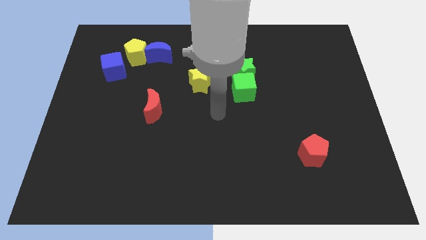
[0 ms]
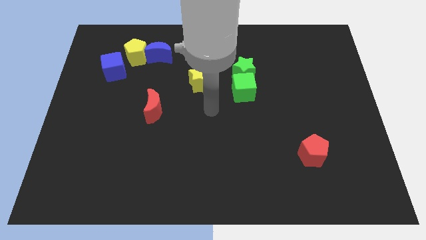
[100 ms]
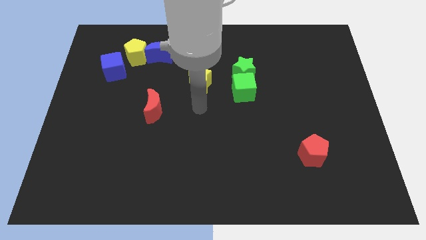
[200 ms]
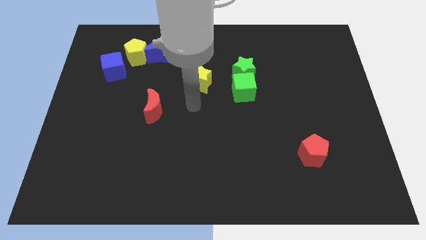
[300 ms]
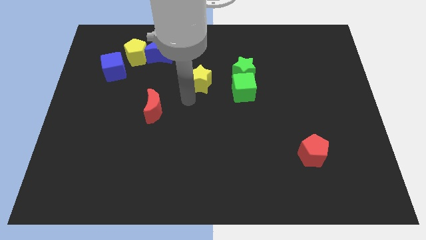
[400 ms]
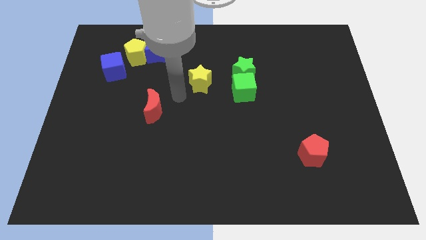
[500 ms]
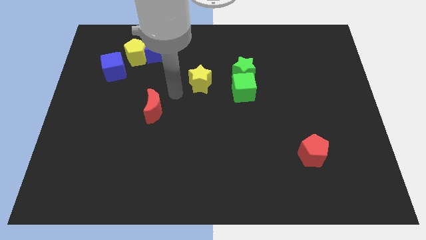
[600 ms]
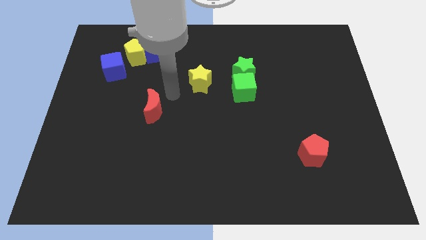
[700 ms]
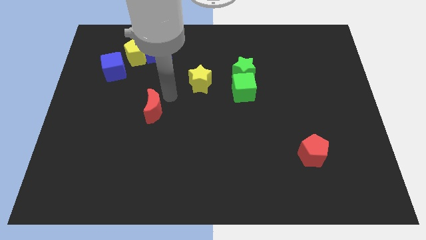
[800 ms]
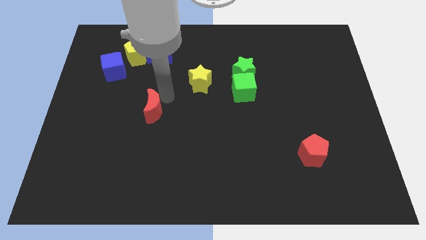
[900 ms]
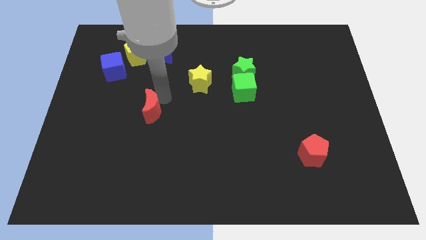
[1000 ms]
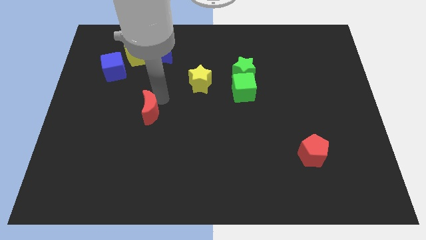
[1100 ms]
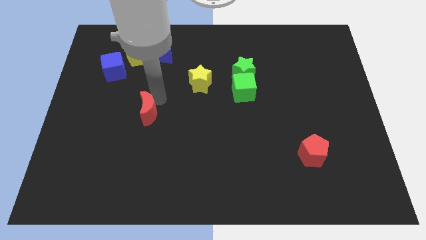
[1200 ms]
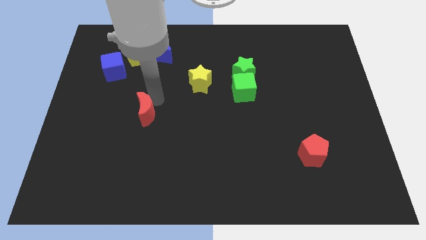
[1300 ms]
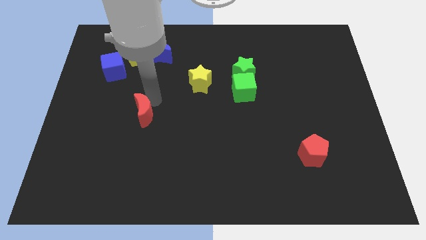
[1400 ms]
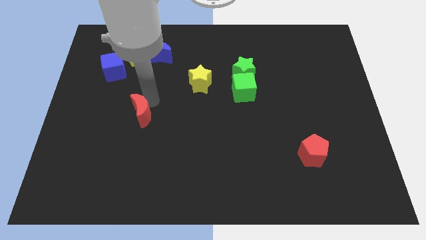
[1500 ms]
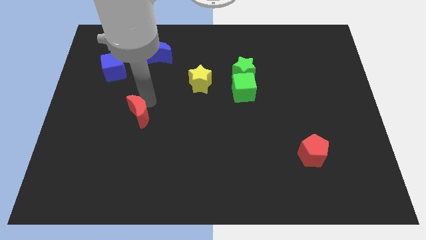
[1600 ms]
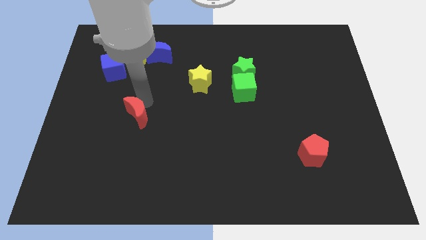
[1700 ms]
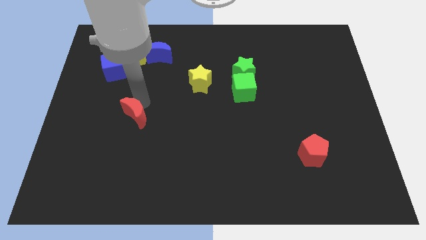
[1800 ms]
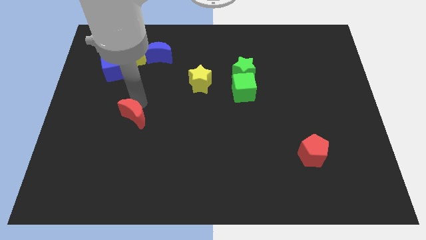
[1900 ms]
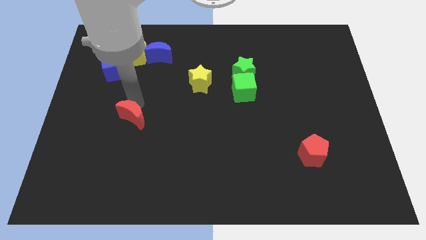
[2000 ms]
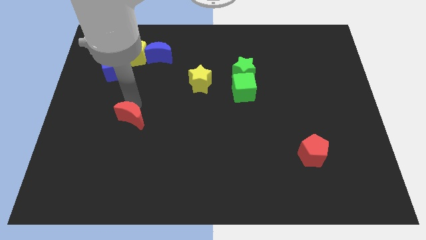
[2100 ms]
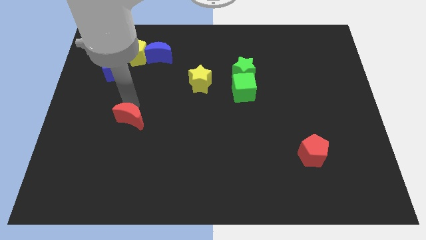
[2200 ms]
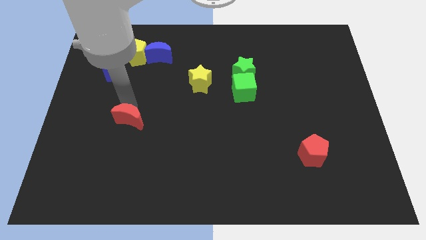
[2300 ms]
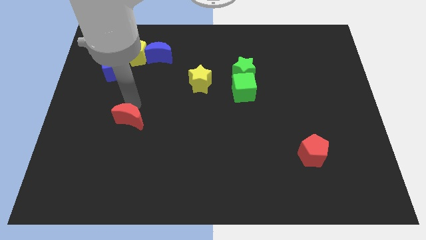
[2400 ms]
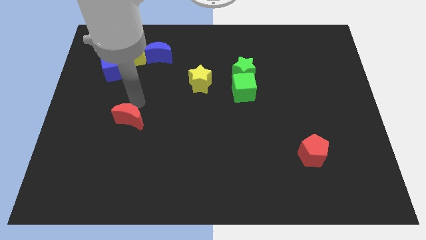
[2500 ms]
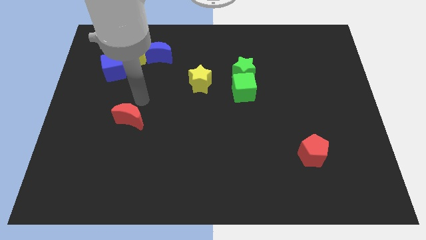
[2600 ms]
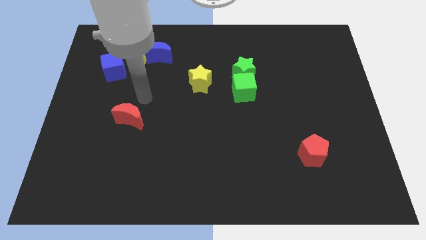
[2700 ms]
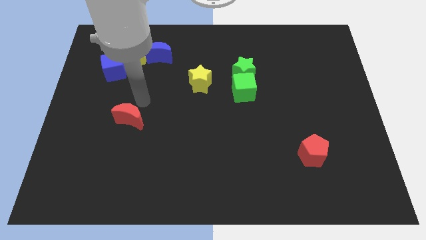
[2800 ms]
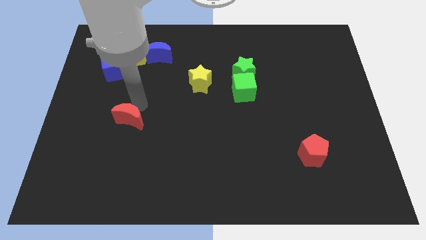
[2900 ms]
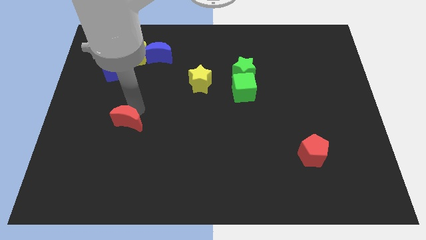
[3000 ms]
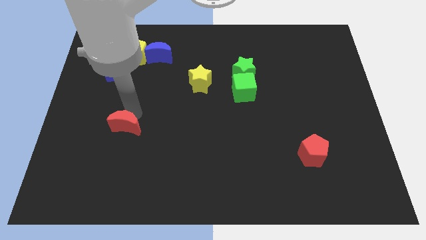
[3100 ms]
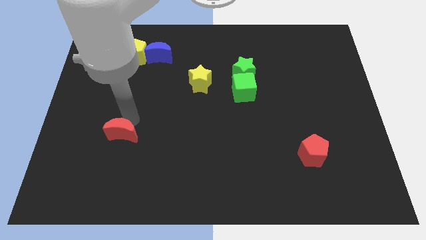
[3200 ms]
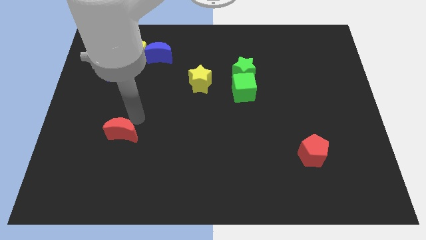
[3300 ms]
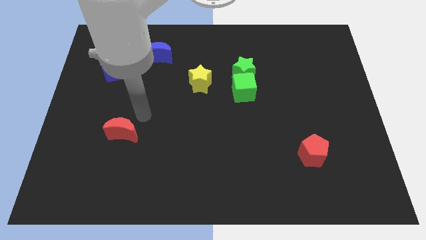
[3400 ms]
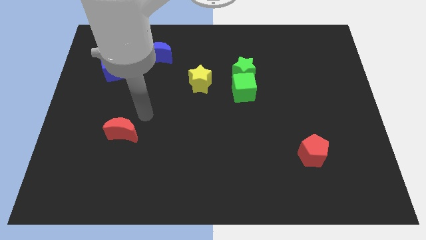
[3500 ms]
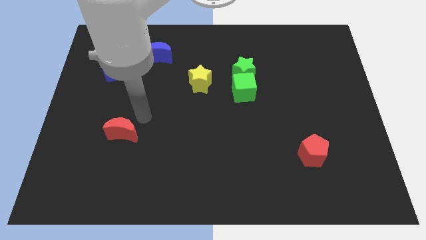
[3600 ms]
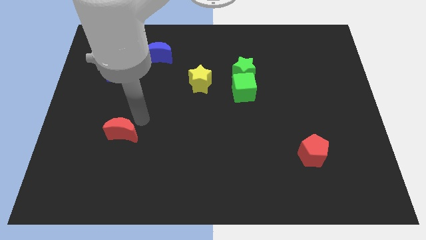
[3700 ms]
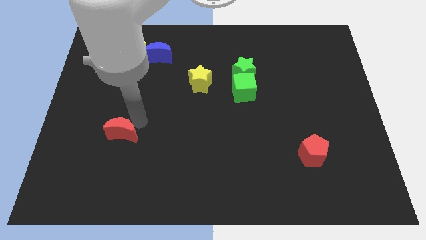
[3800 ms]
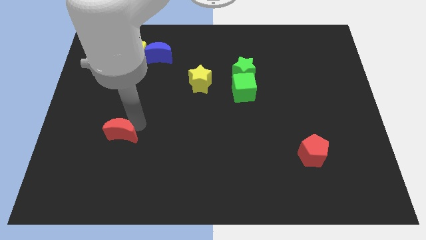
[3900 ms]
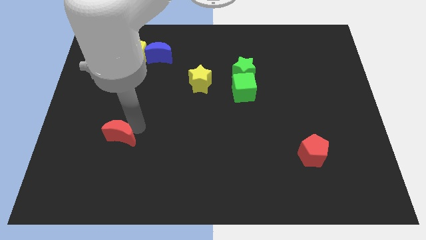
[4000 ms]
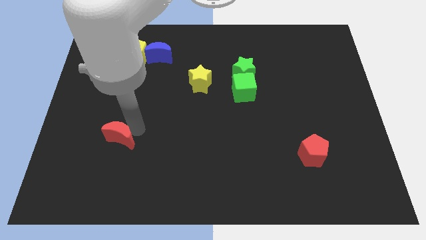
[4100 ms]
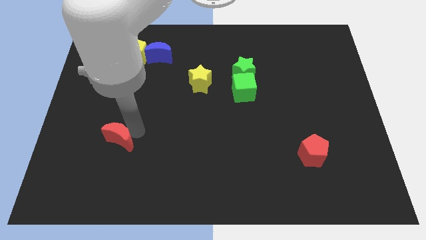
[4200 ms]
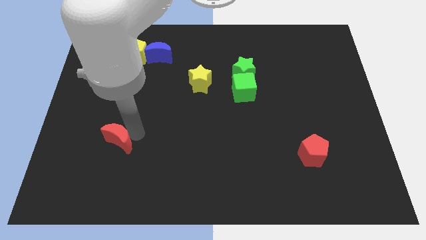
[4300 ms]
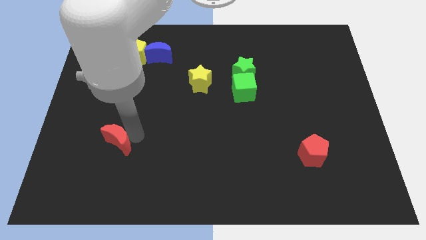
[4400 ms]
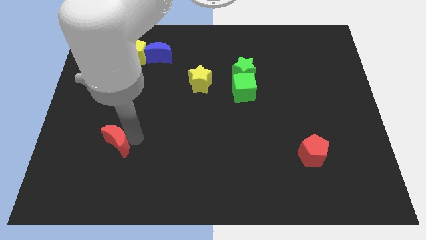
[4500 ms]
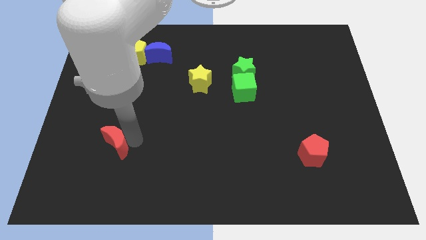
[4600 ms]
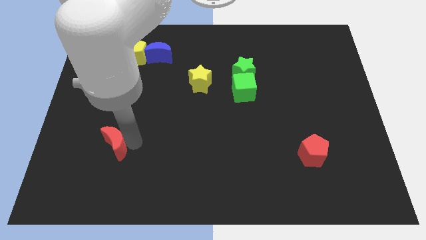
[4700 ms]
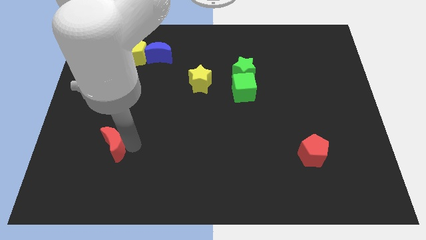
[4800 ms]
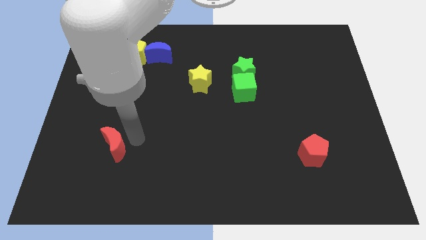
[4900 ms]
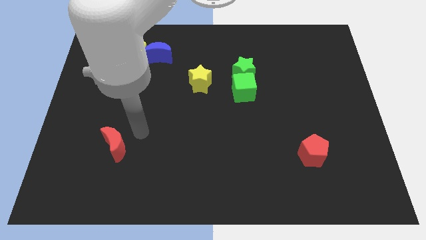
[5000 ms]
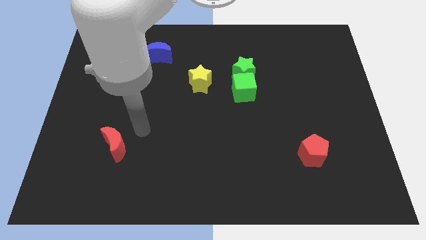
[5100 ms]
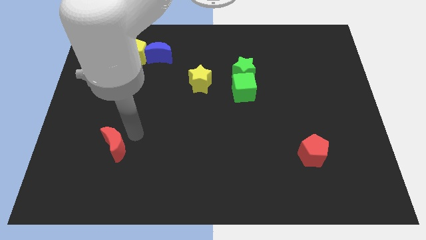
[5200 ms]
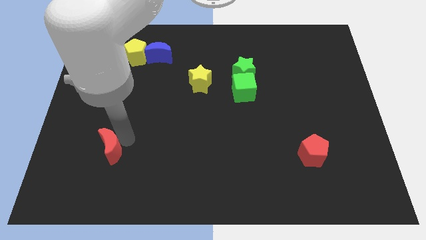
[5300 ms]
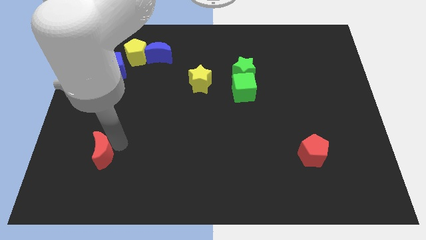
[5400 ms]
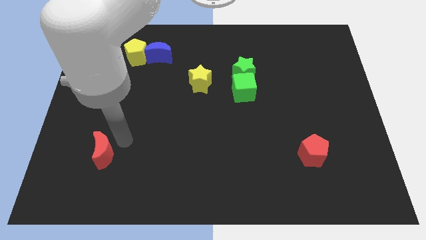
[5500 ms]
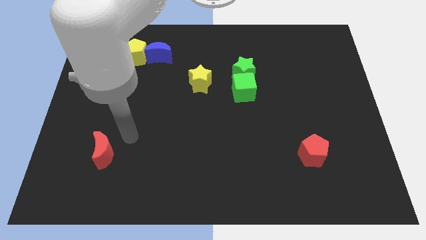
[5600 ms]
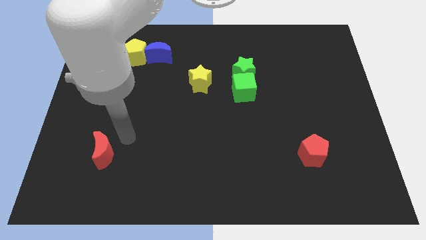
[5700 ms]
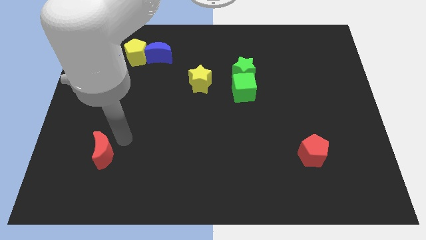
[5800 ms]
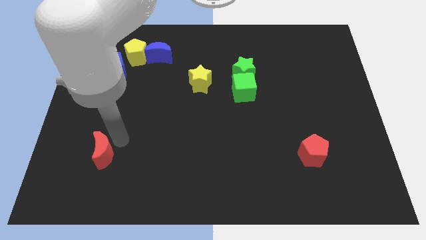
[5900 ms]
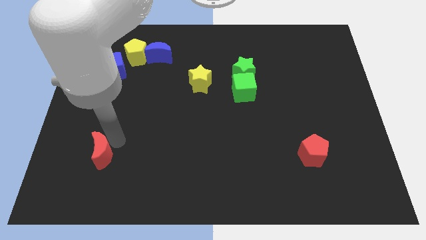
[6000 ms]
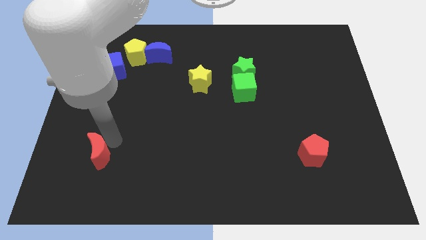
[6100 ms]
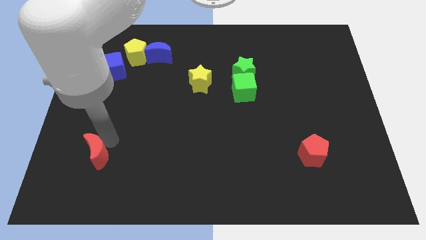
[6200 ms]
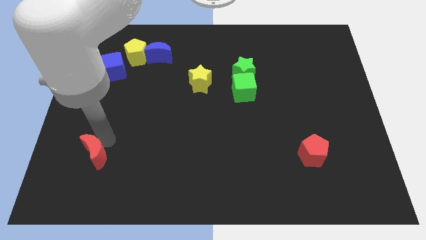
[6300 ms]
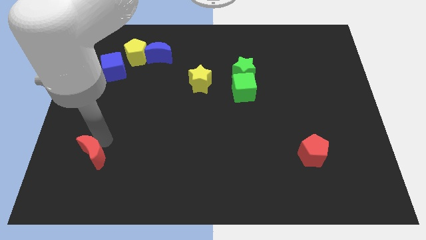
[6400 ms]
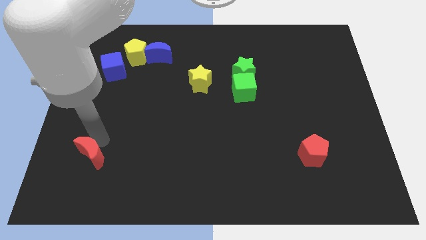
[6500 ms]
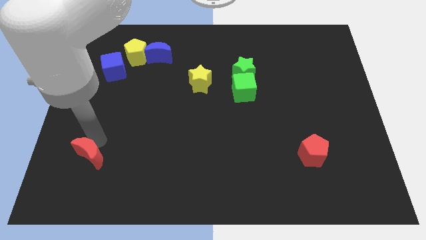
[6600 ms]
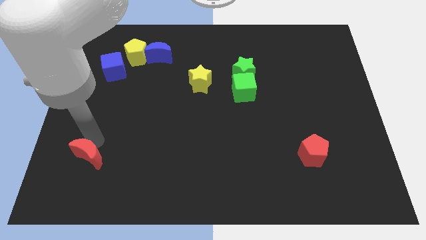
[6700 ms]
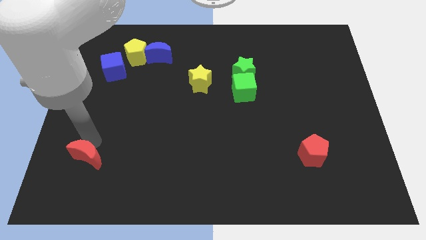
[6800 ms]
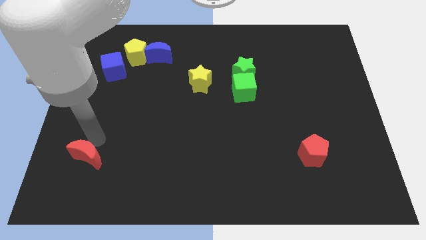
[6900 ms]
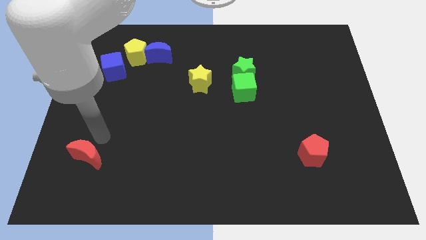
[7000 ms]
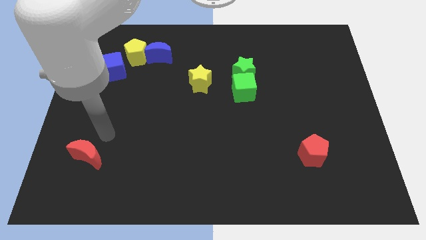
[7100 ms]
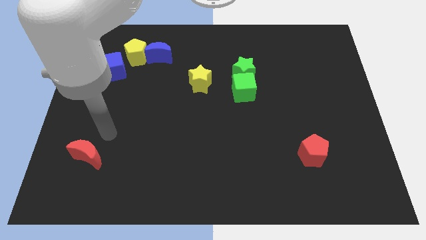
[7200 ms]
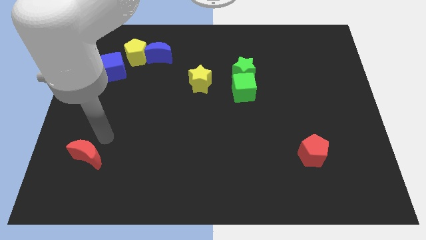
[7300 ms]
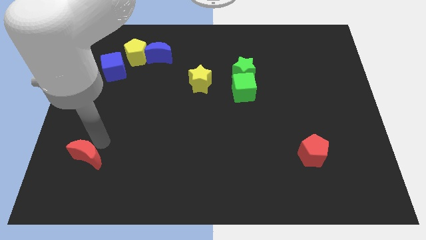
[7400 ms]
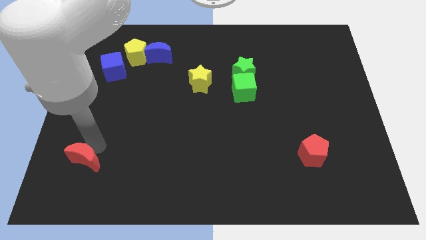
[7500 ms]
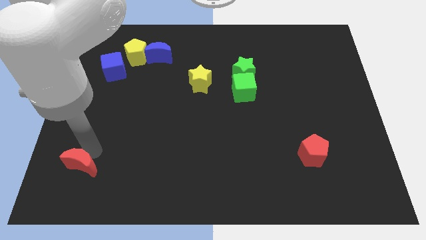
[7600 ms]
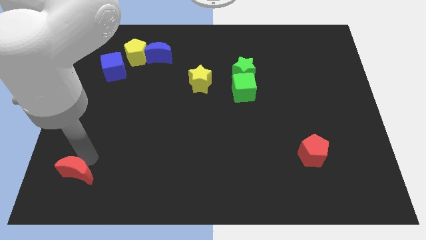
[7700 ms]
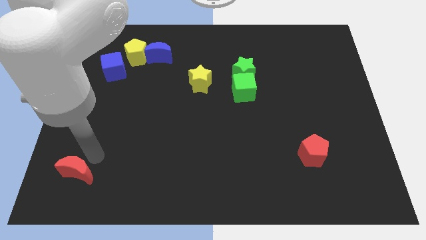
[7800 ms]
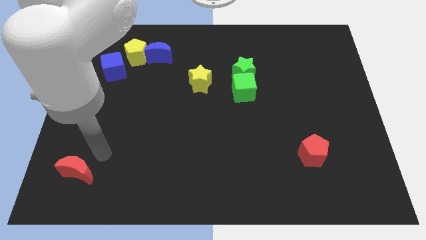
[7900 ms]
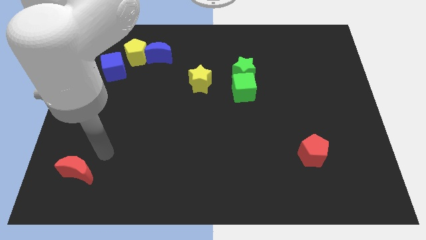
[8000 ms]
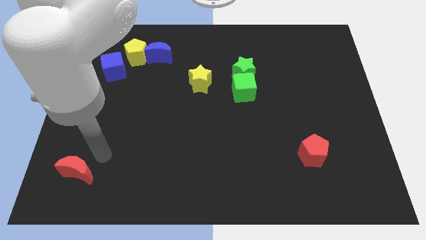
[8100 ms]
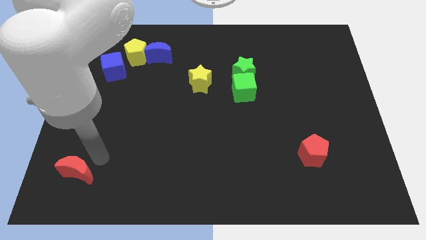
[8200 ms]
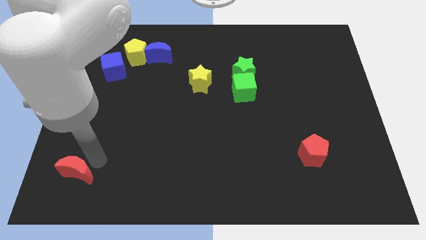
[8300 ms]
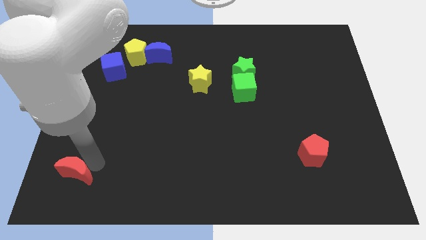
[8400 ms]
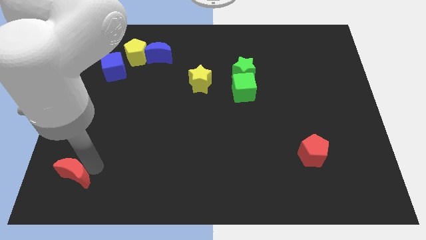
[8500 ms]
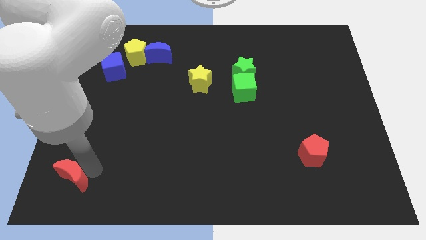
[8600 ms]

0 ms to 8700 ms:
move the red moon to the bottom left

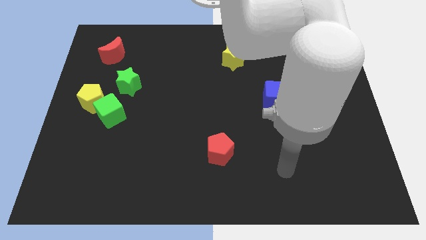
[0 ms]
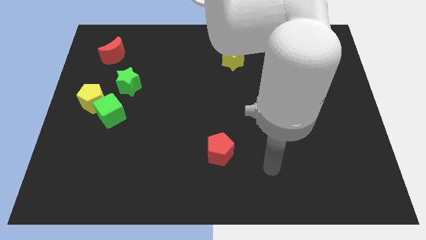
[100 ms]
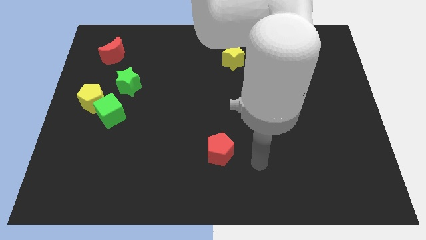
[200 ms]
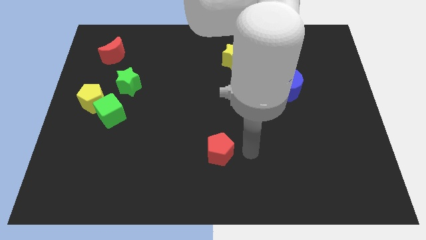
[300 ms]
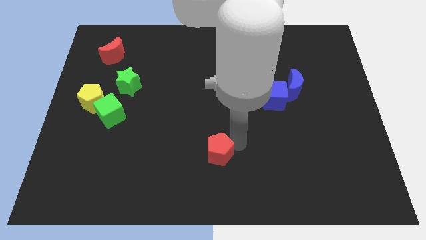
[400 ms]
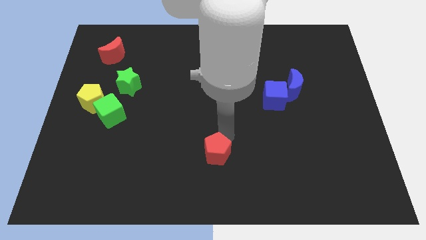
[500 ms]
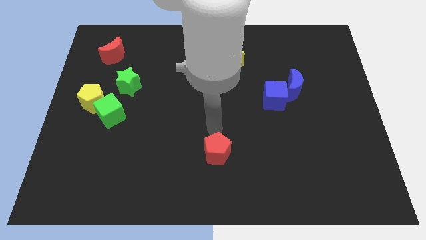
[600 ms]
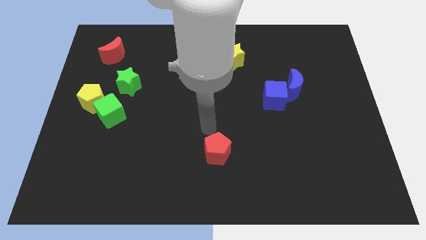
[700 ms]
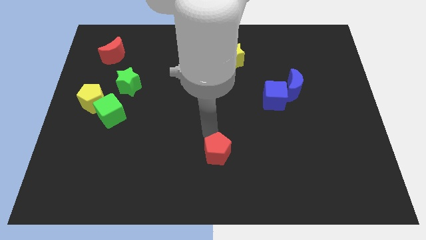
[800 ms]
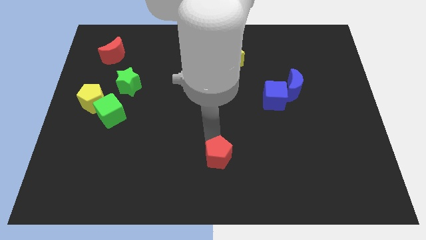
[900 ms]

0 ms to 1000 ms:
move the red pentagon to the bottom
